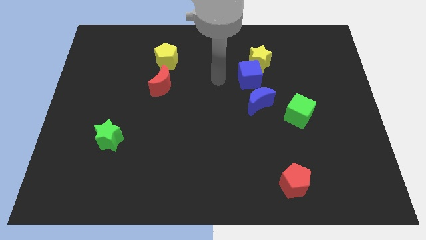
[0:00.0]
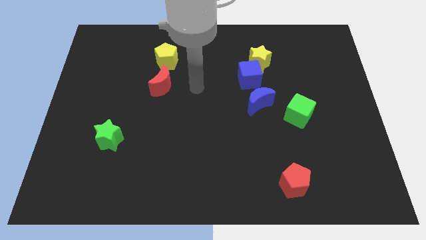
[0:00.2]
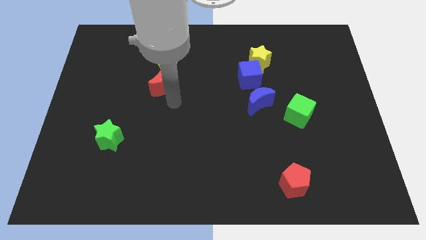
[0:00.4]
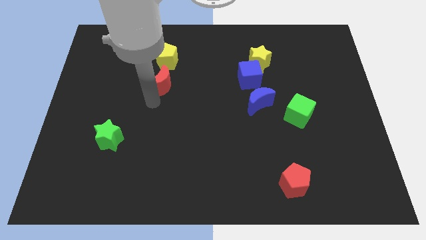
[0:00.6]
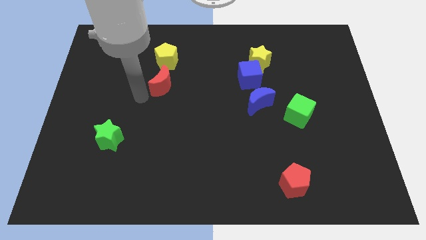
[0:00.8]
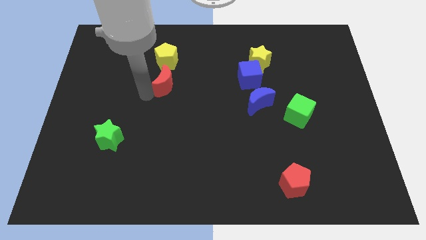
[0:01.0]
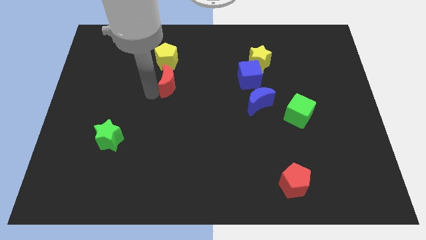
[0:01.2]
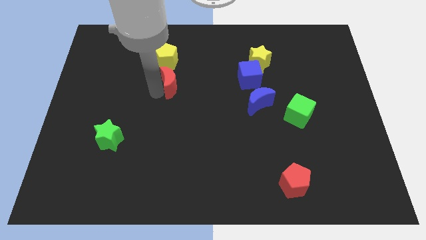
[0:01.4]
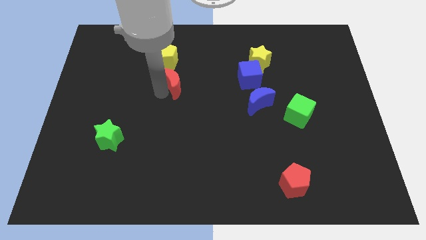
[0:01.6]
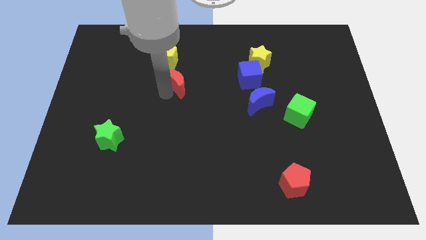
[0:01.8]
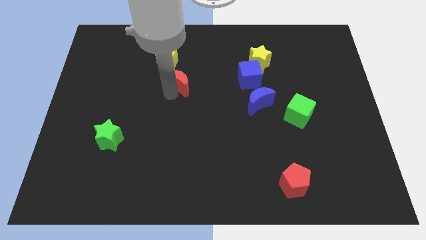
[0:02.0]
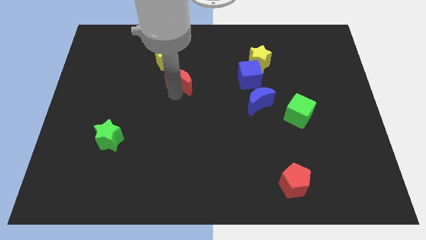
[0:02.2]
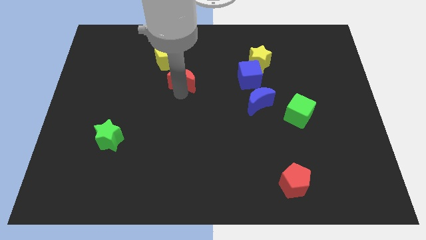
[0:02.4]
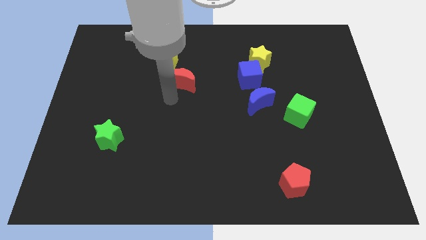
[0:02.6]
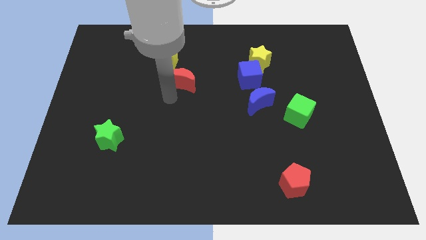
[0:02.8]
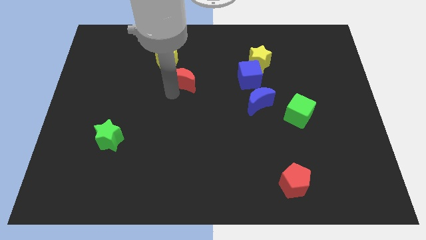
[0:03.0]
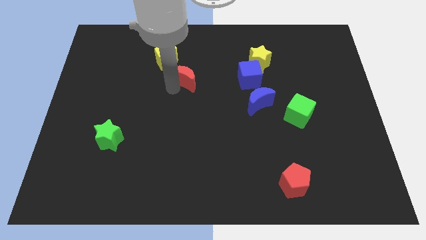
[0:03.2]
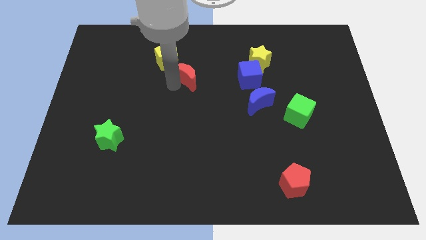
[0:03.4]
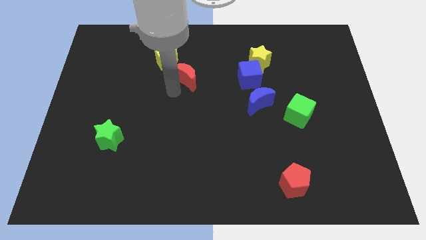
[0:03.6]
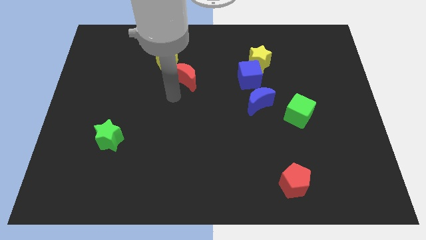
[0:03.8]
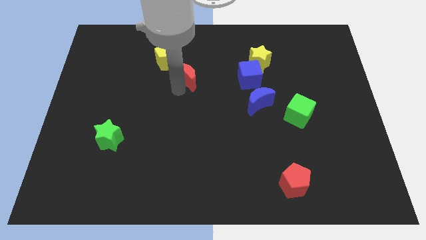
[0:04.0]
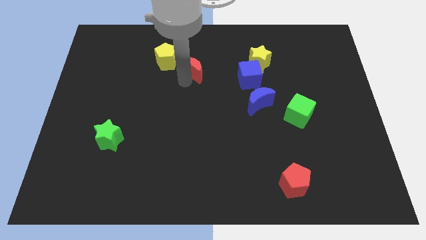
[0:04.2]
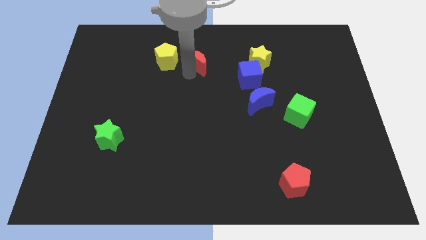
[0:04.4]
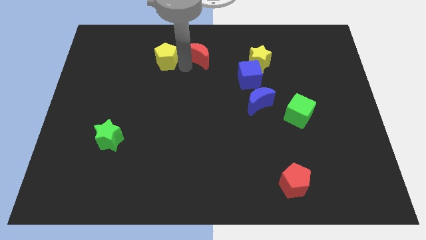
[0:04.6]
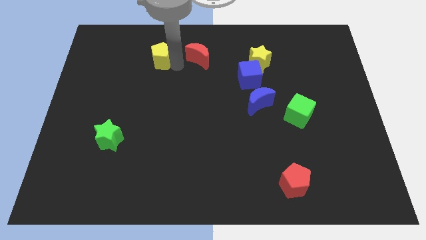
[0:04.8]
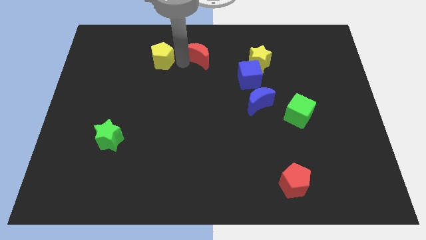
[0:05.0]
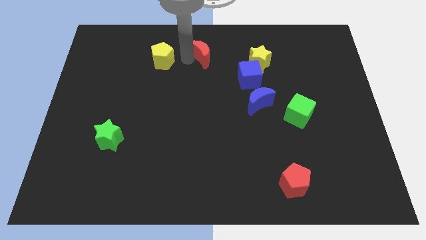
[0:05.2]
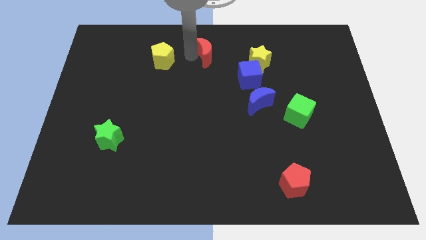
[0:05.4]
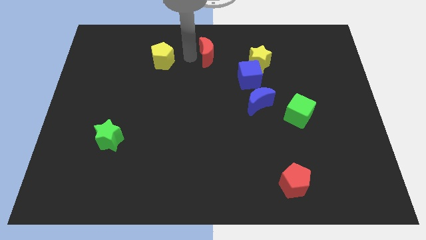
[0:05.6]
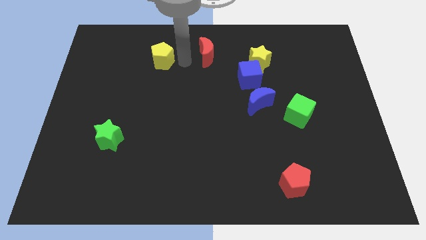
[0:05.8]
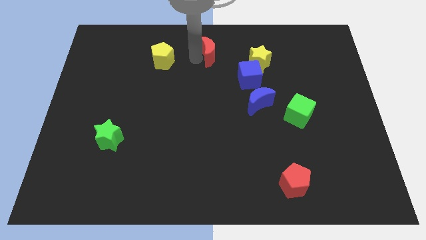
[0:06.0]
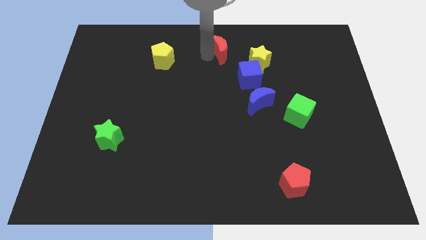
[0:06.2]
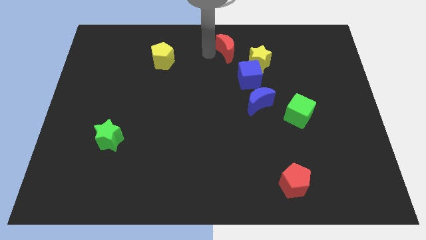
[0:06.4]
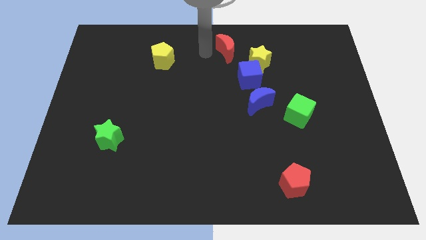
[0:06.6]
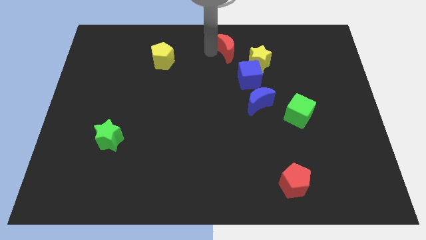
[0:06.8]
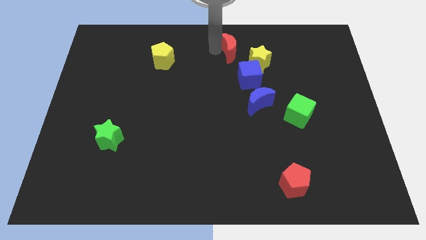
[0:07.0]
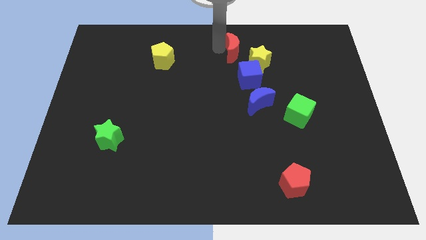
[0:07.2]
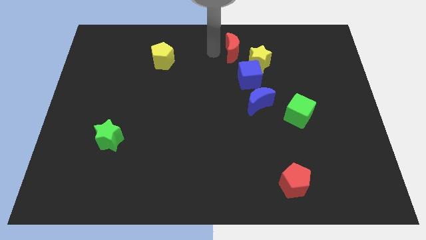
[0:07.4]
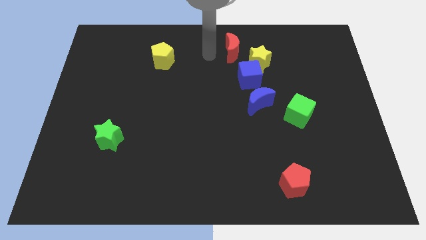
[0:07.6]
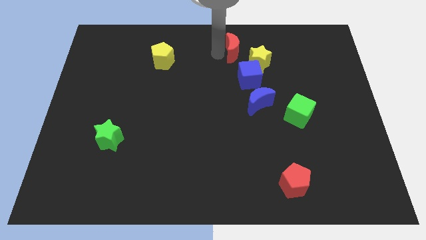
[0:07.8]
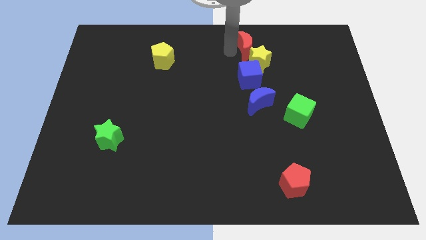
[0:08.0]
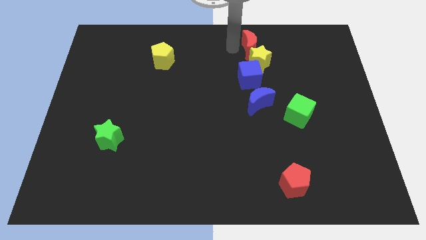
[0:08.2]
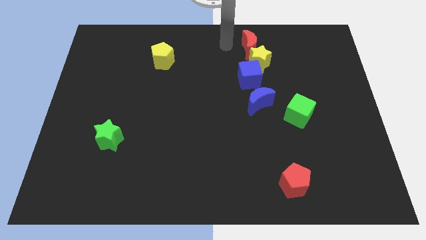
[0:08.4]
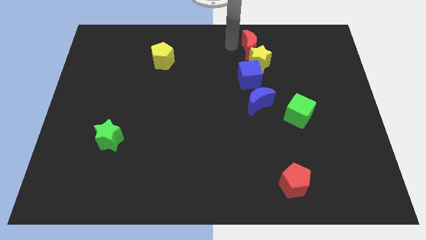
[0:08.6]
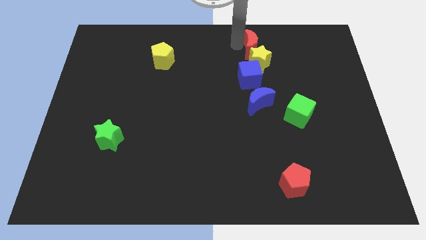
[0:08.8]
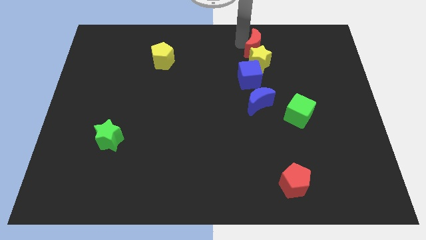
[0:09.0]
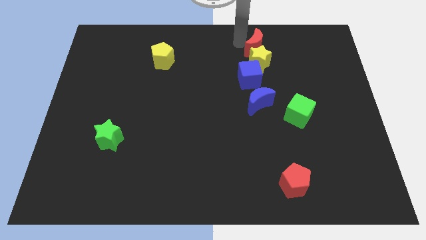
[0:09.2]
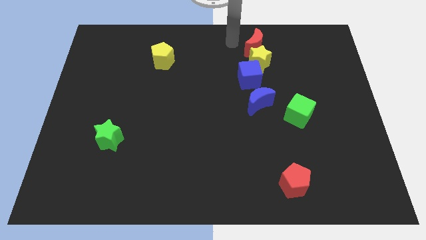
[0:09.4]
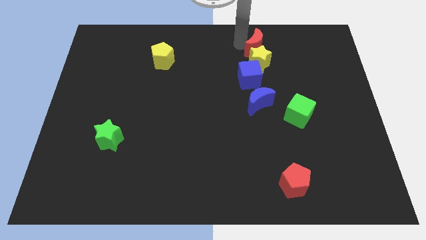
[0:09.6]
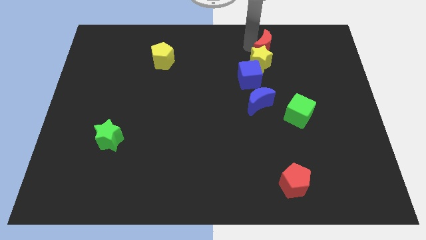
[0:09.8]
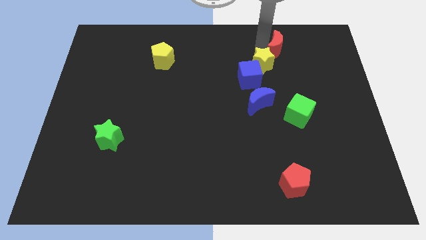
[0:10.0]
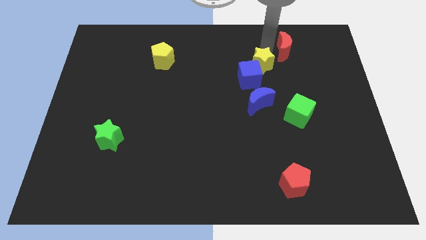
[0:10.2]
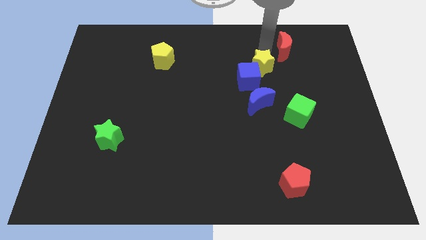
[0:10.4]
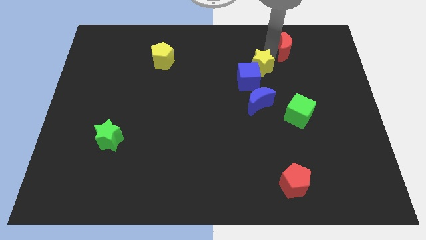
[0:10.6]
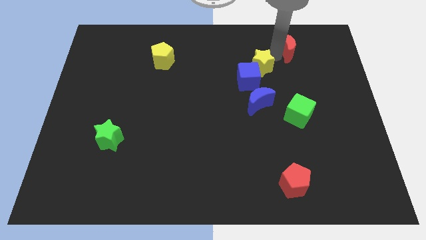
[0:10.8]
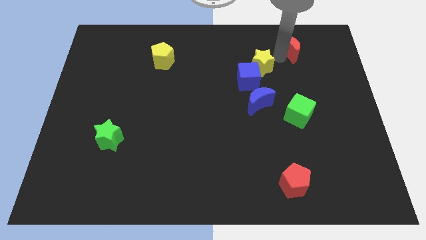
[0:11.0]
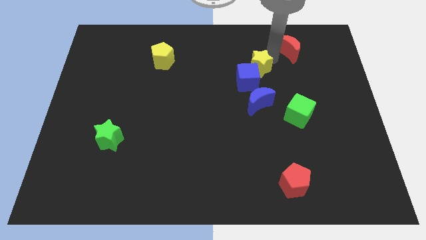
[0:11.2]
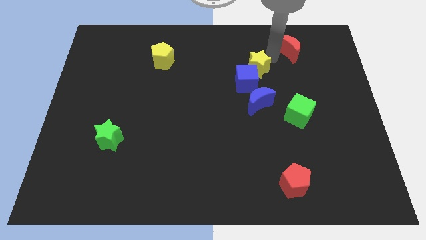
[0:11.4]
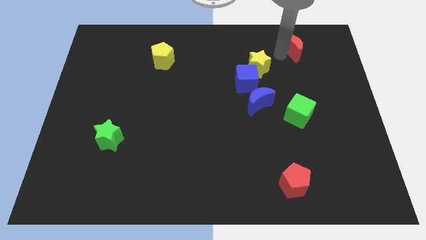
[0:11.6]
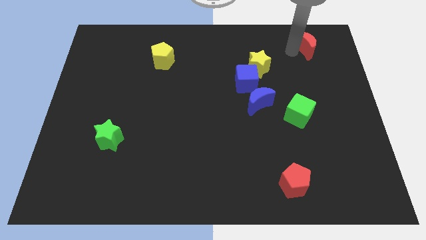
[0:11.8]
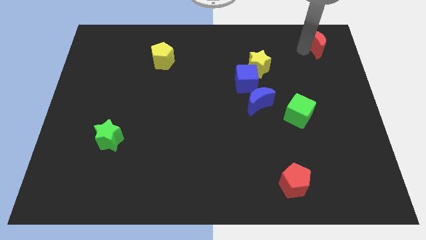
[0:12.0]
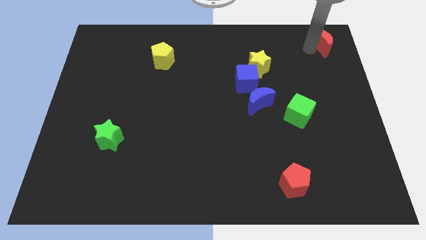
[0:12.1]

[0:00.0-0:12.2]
move the red moon to the top right corner

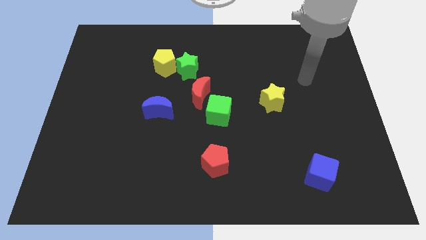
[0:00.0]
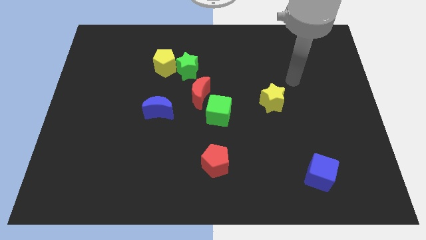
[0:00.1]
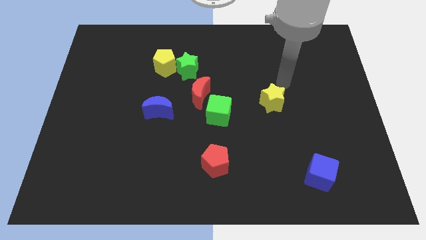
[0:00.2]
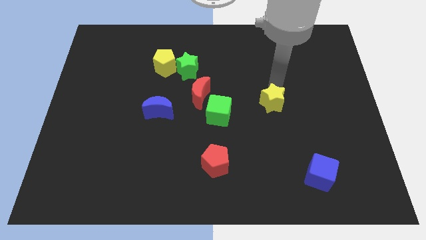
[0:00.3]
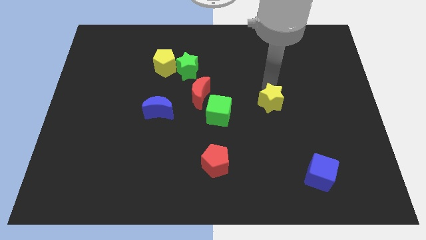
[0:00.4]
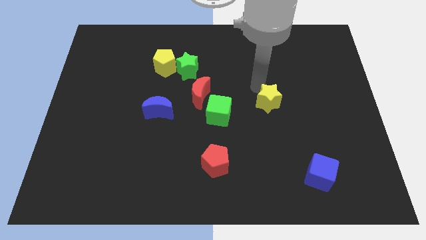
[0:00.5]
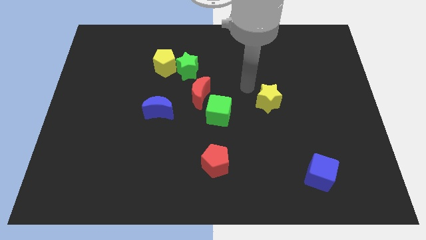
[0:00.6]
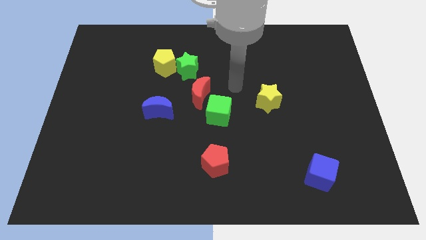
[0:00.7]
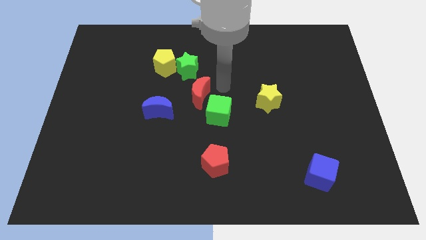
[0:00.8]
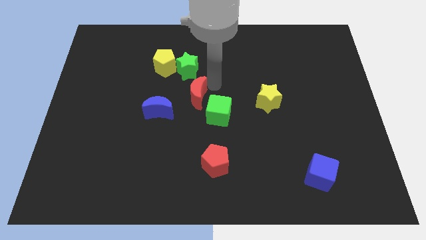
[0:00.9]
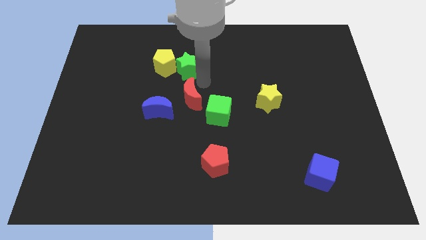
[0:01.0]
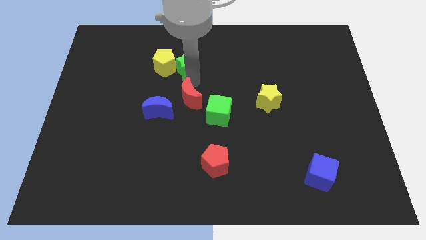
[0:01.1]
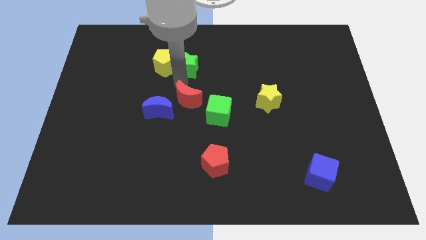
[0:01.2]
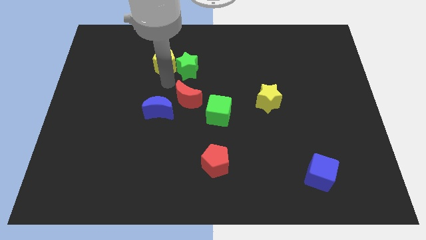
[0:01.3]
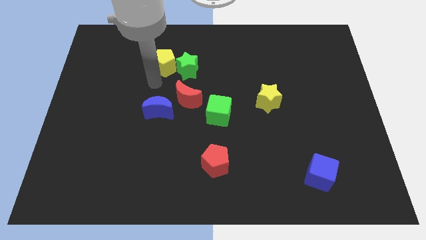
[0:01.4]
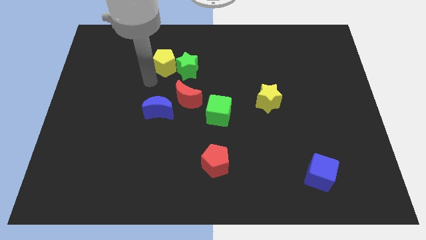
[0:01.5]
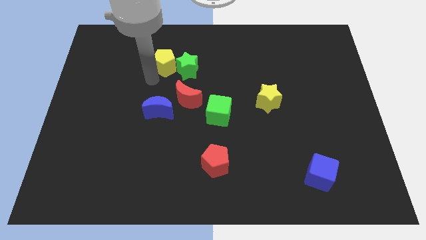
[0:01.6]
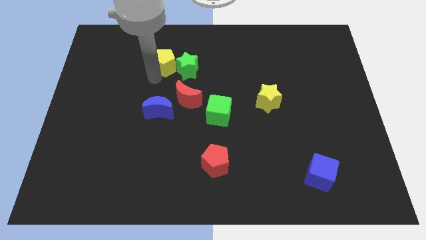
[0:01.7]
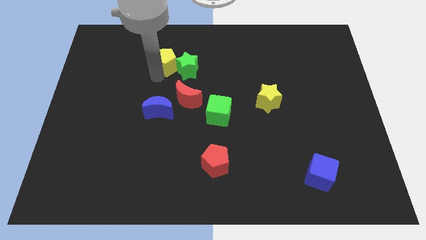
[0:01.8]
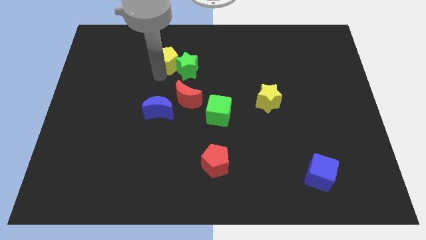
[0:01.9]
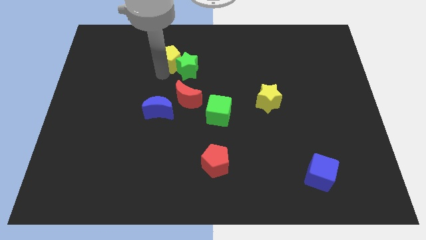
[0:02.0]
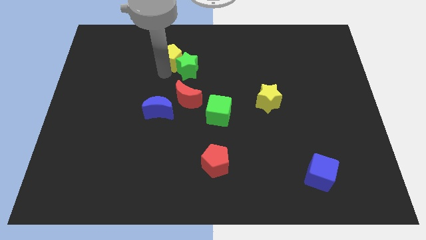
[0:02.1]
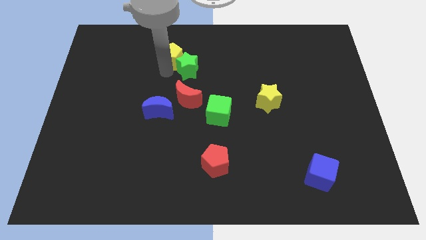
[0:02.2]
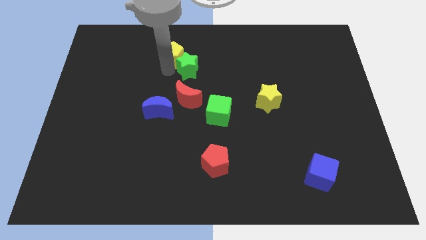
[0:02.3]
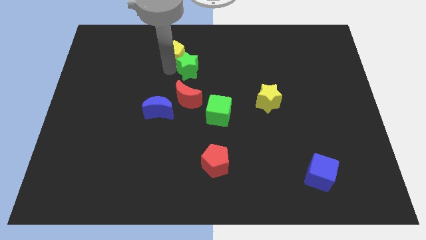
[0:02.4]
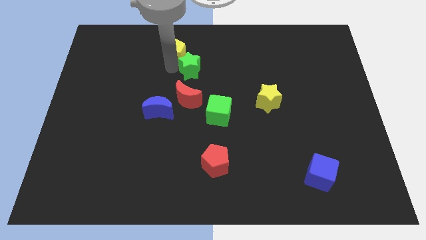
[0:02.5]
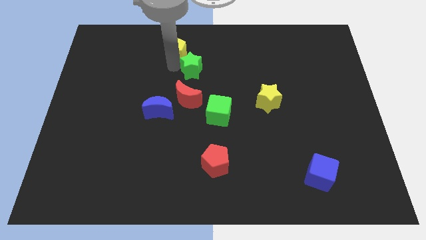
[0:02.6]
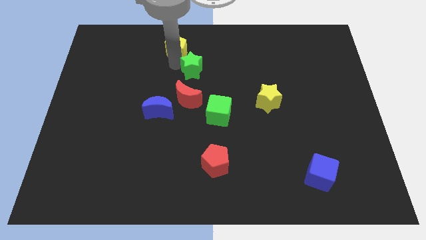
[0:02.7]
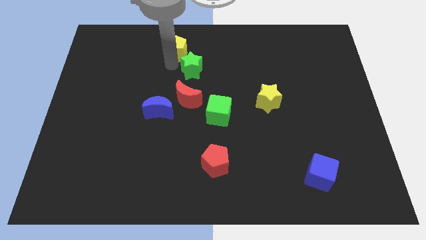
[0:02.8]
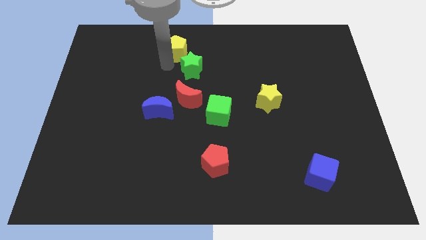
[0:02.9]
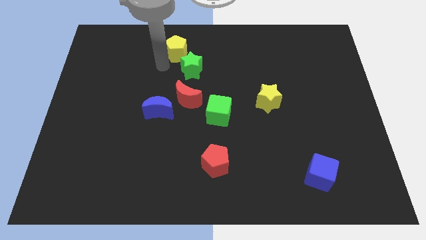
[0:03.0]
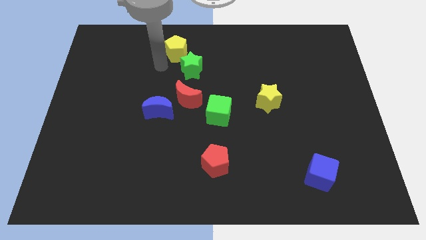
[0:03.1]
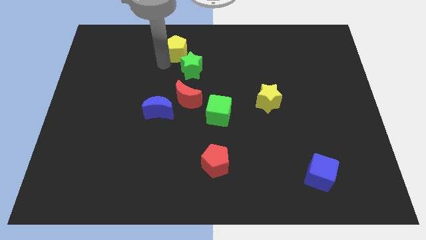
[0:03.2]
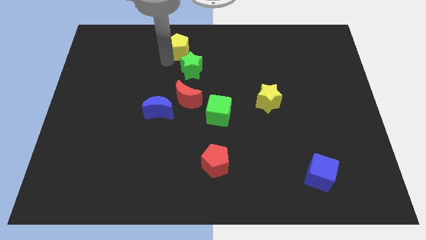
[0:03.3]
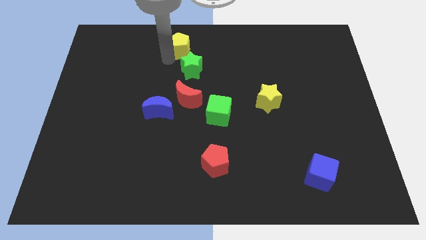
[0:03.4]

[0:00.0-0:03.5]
slide the yellow pentagon to the top
